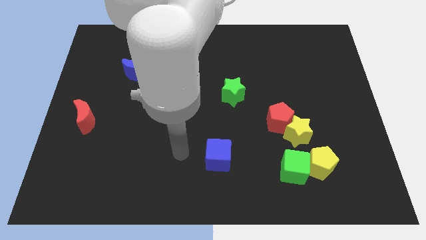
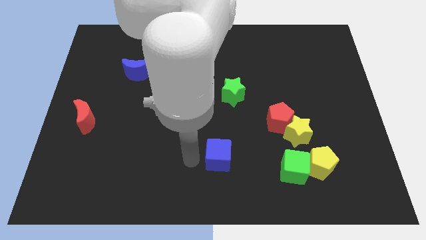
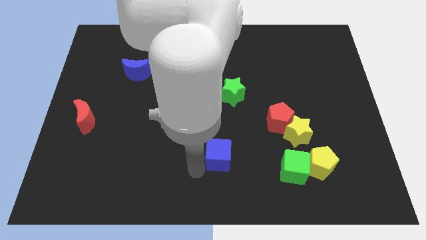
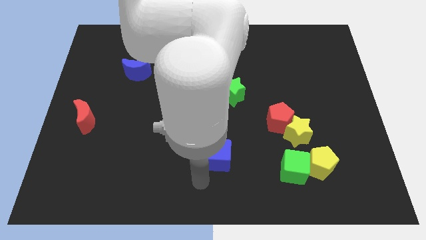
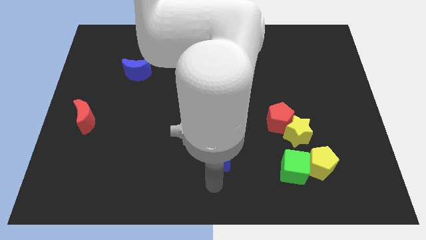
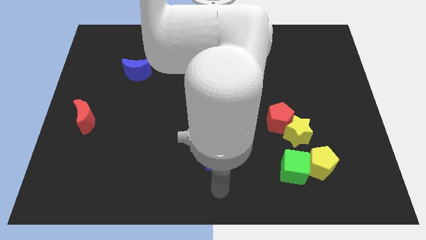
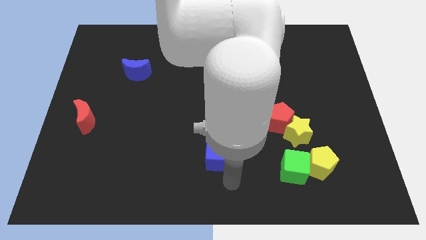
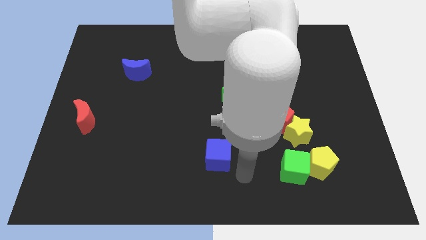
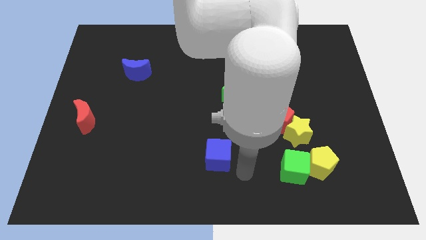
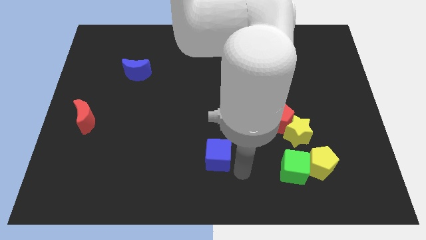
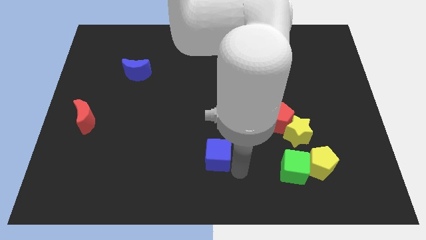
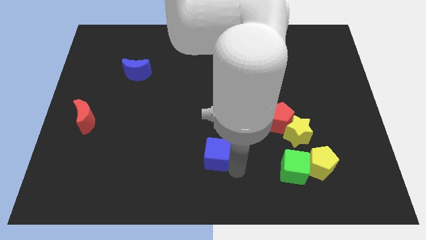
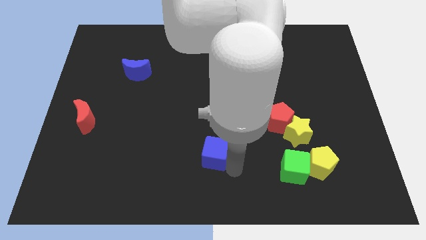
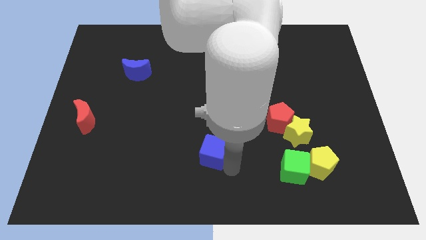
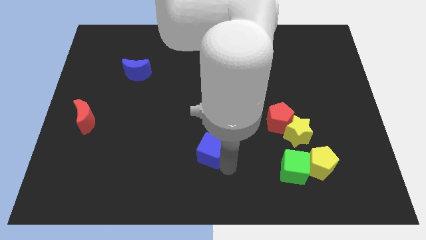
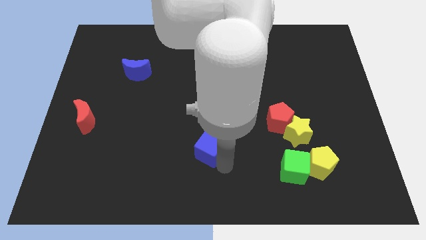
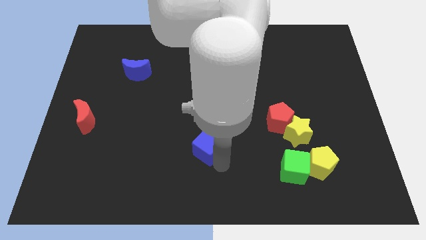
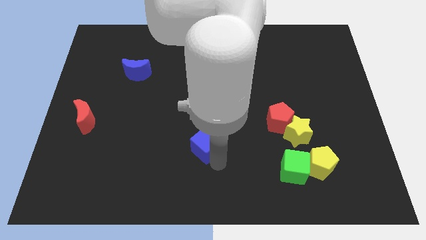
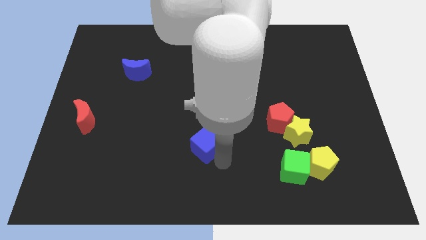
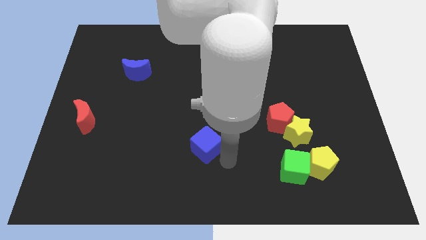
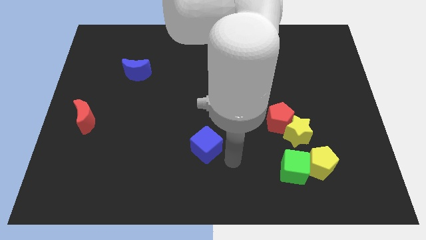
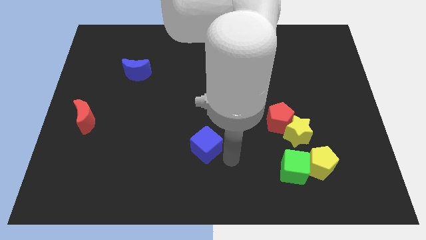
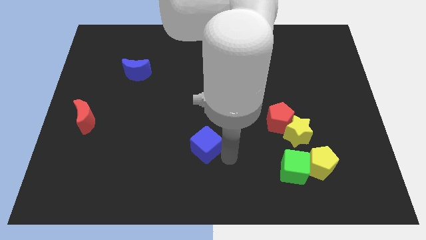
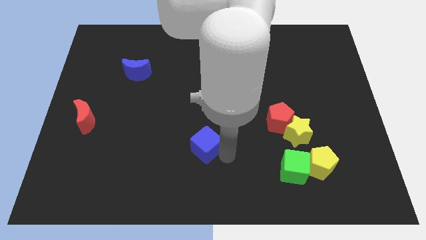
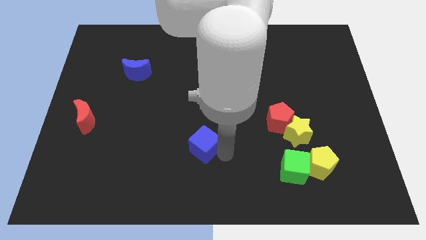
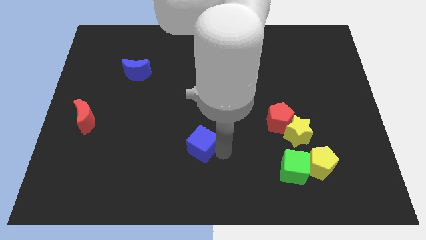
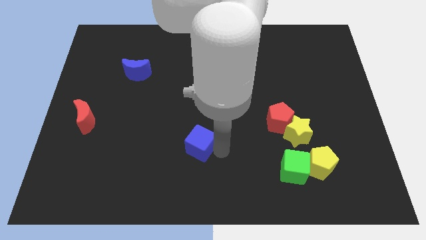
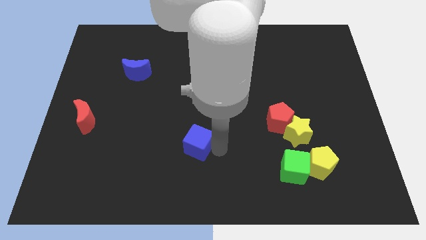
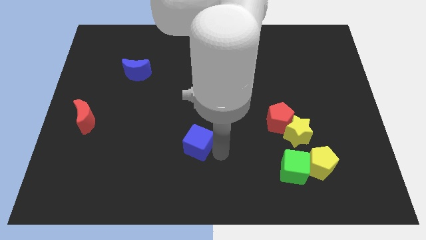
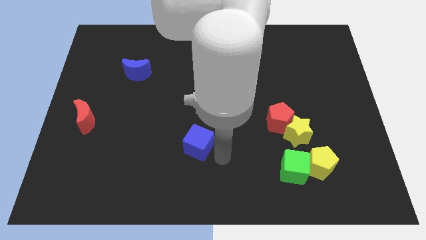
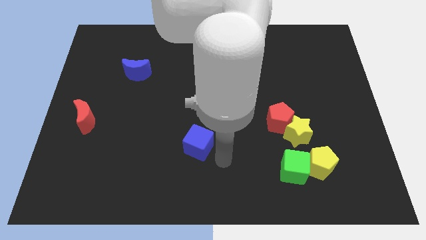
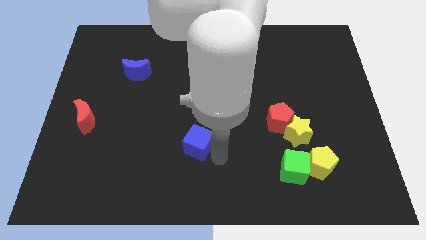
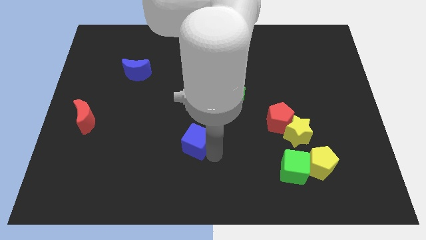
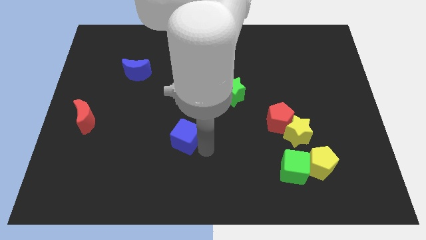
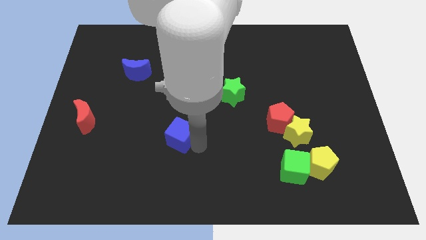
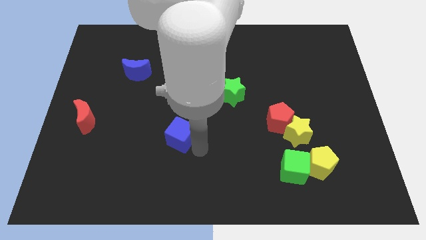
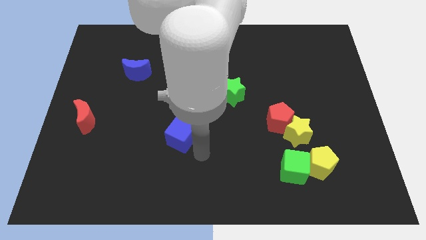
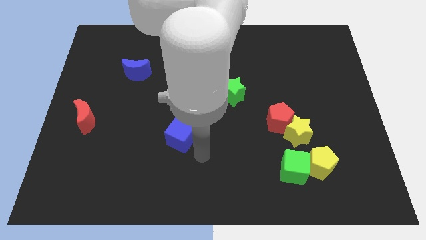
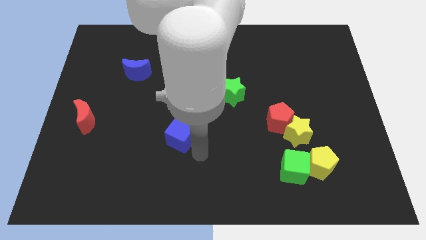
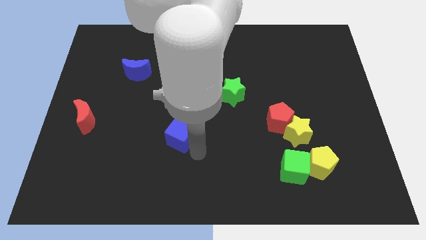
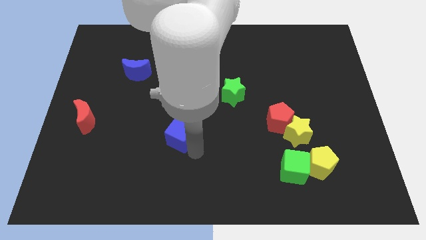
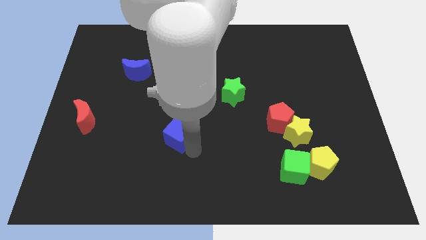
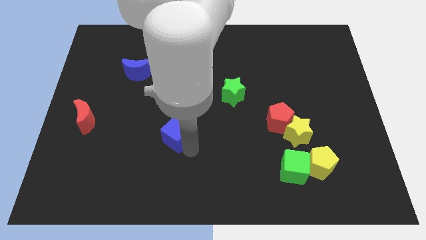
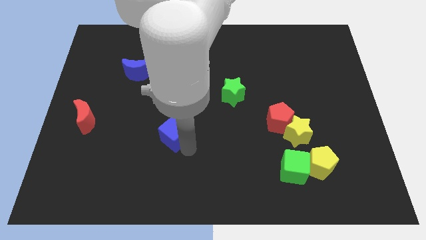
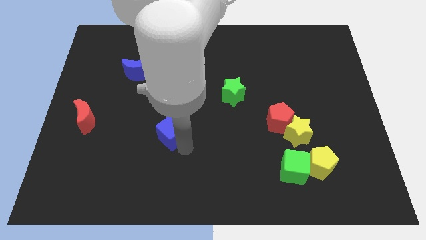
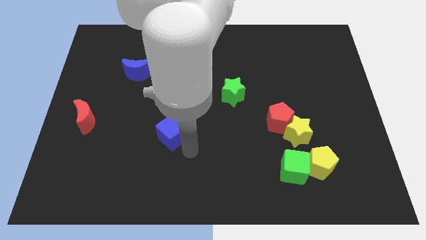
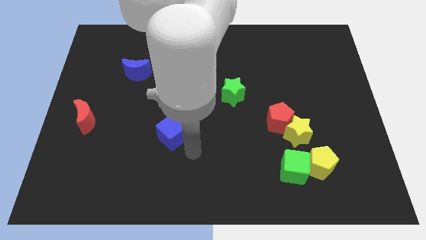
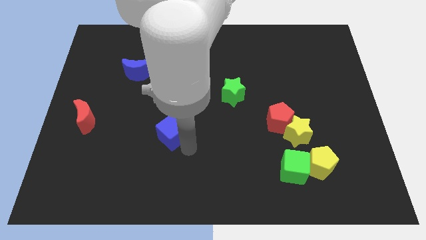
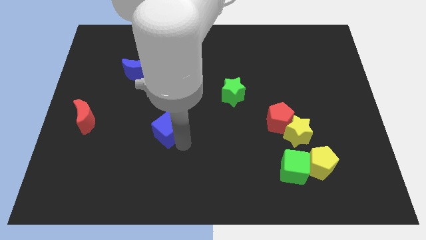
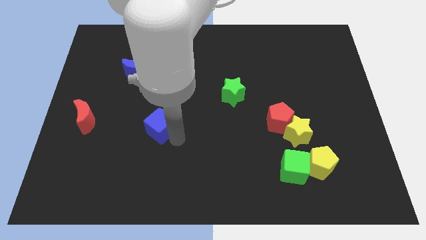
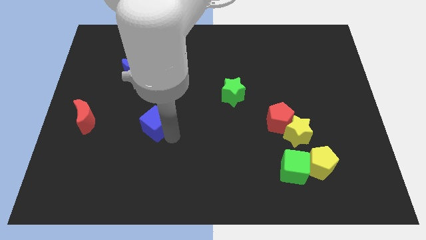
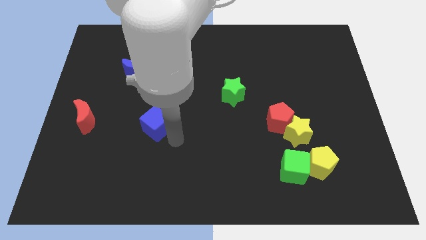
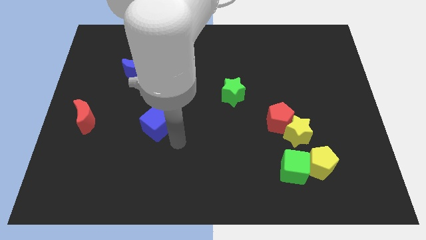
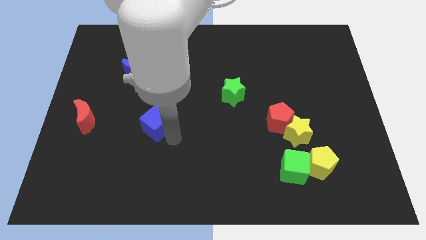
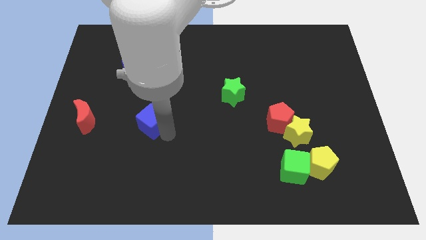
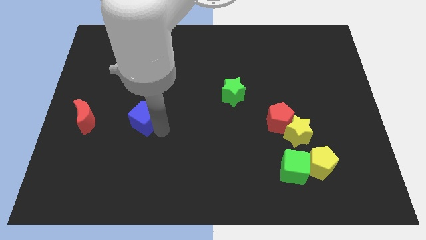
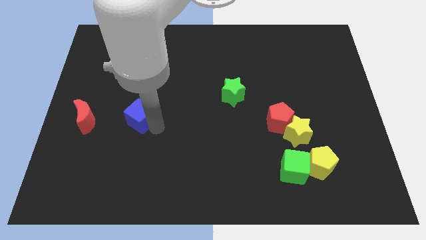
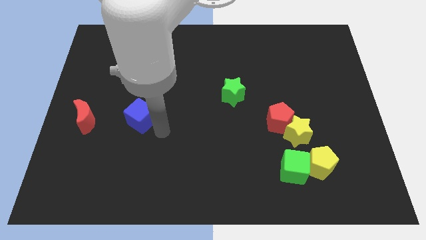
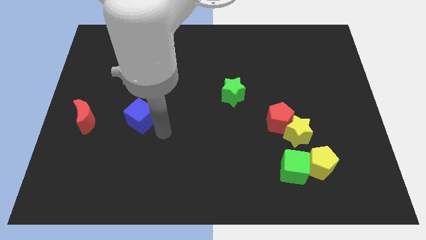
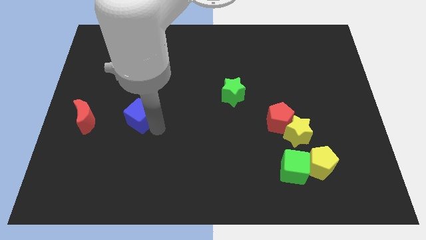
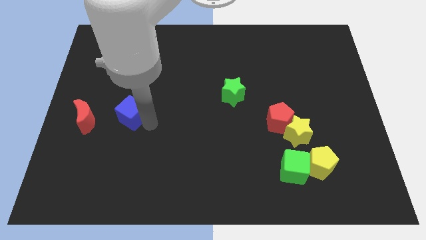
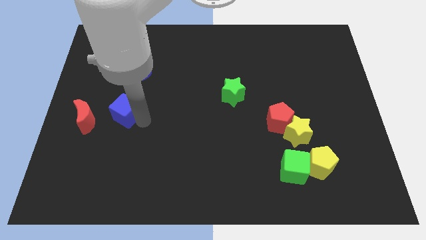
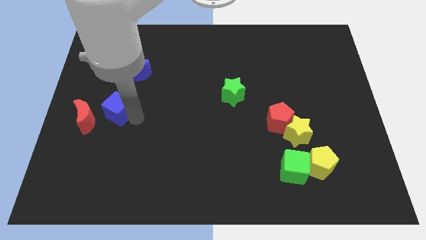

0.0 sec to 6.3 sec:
put the blue cube diagonally up and to the right of the red moon
